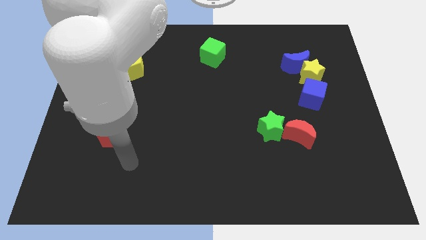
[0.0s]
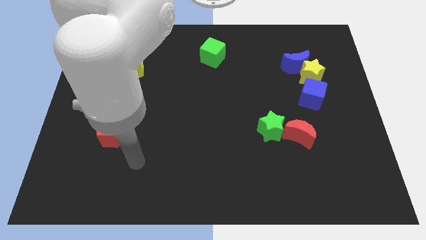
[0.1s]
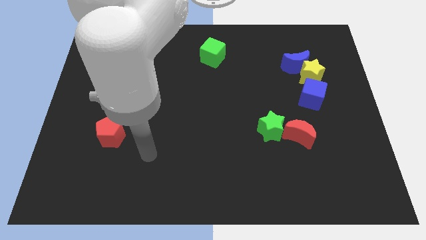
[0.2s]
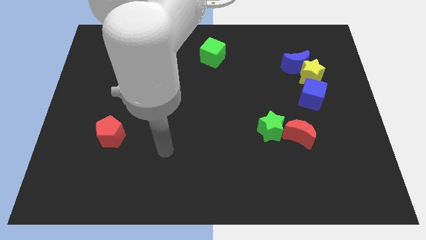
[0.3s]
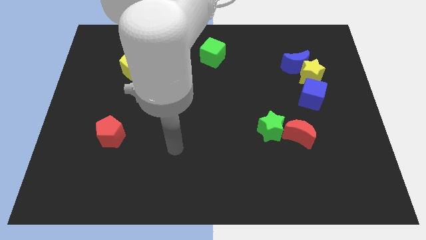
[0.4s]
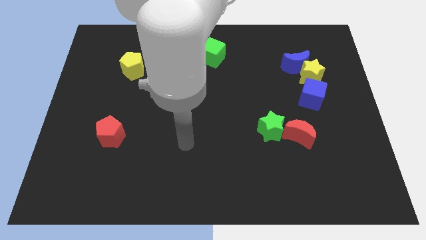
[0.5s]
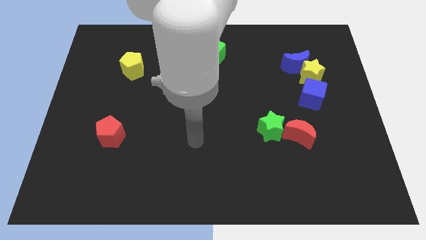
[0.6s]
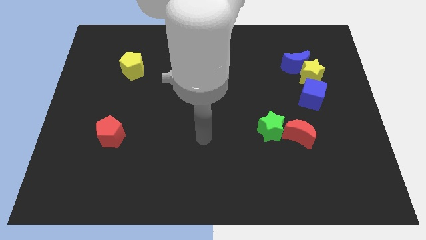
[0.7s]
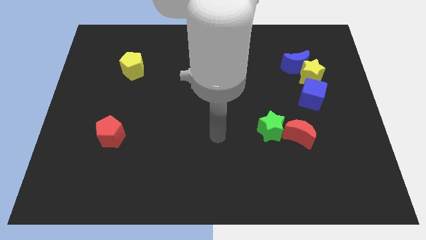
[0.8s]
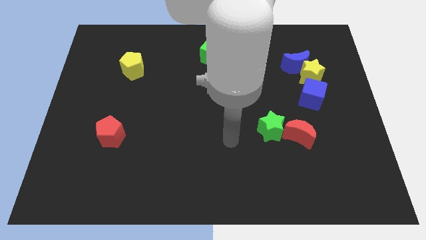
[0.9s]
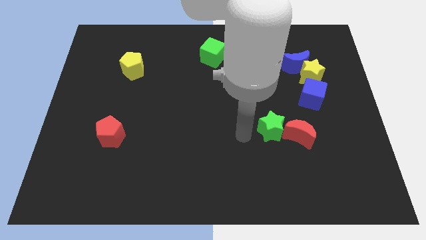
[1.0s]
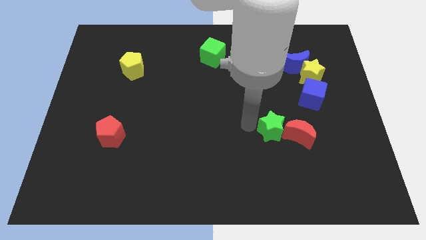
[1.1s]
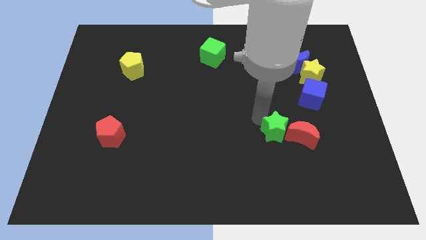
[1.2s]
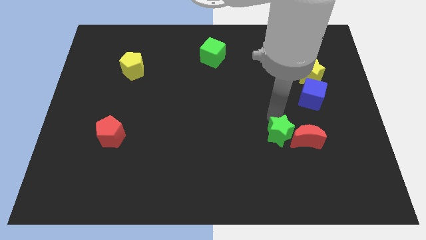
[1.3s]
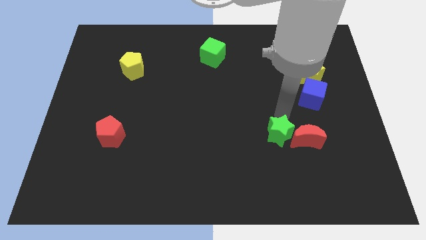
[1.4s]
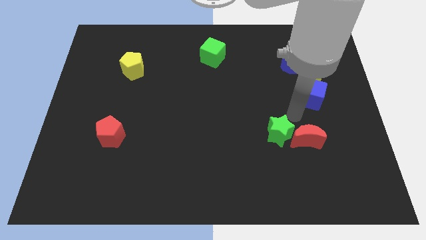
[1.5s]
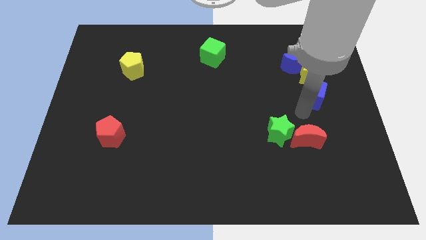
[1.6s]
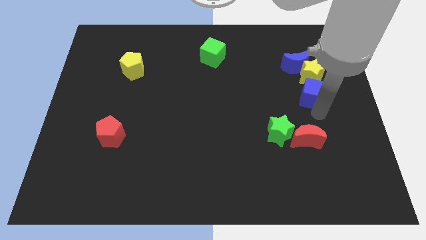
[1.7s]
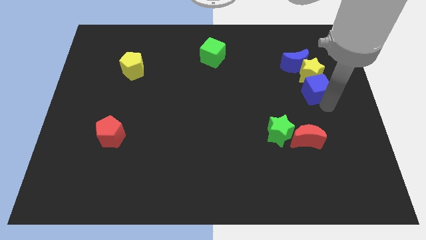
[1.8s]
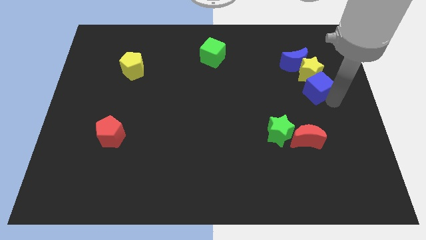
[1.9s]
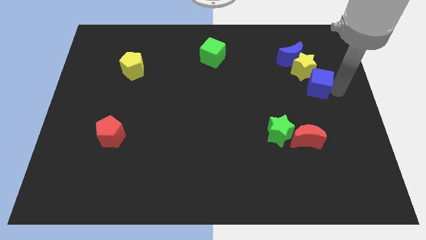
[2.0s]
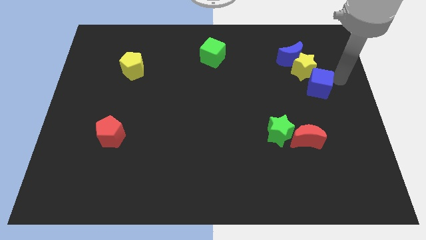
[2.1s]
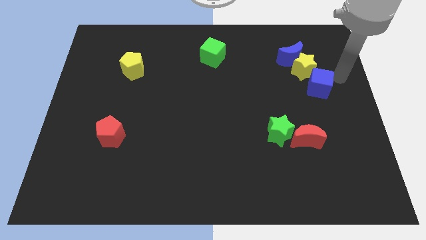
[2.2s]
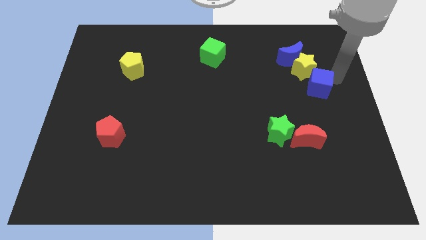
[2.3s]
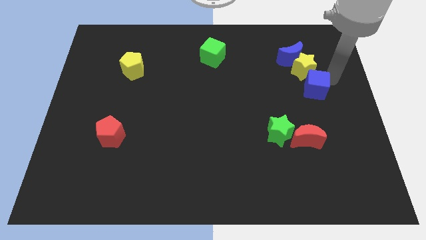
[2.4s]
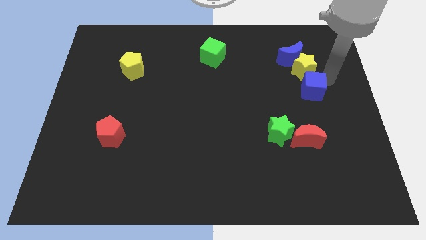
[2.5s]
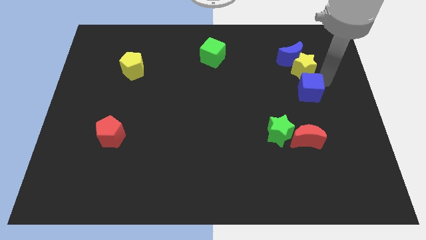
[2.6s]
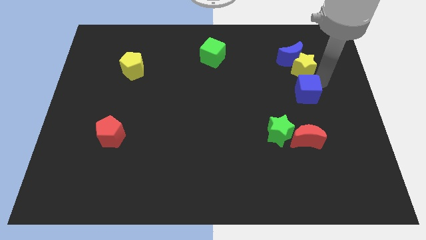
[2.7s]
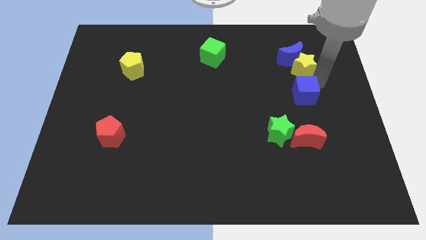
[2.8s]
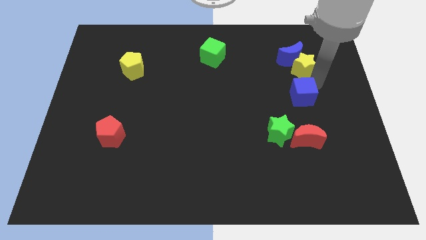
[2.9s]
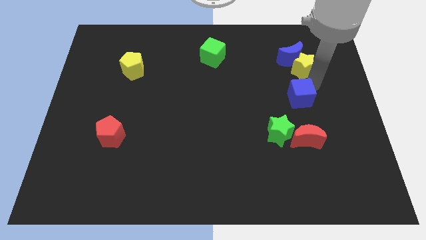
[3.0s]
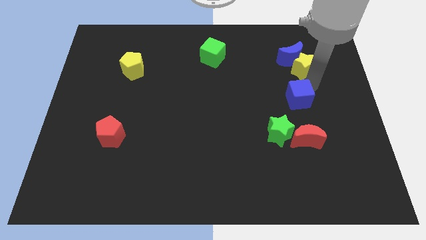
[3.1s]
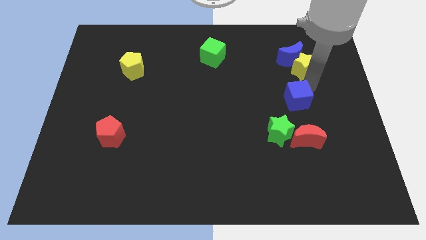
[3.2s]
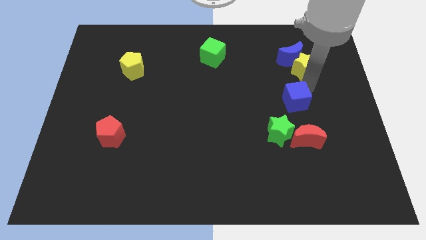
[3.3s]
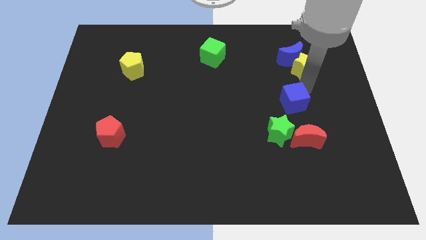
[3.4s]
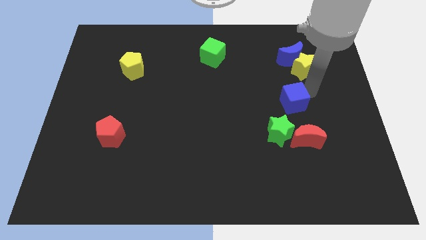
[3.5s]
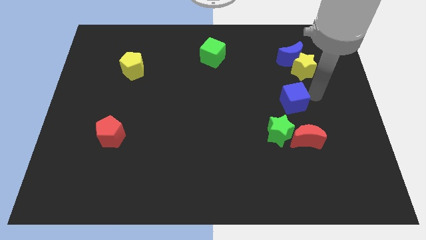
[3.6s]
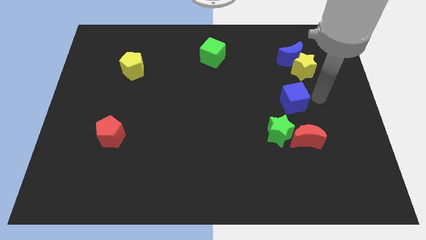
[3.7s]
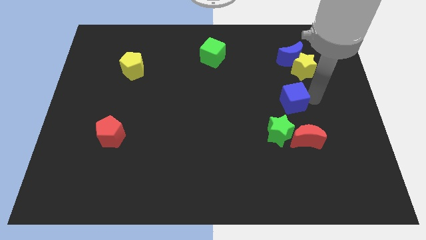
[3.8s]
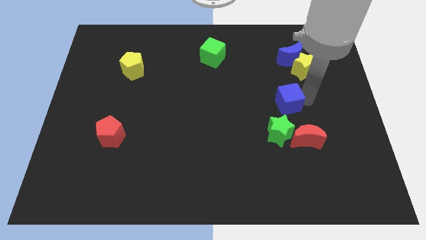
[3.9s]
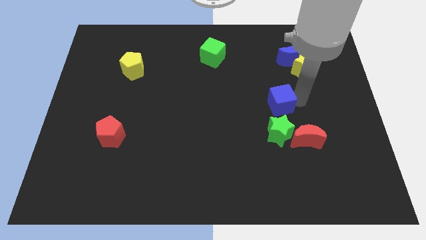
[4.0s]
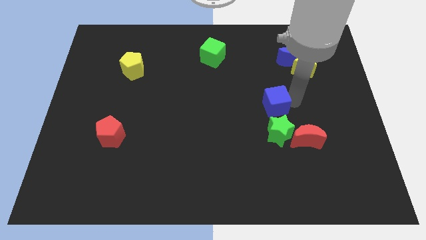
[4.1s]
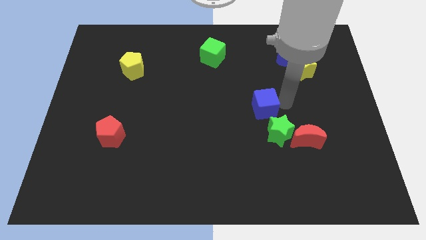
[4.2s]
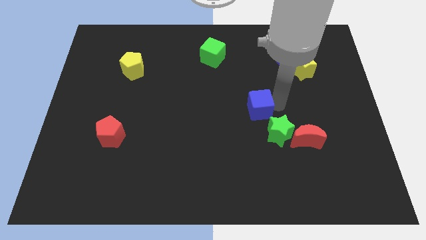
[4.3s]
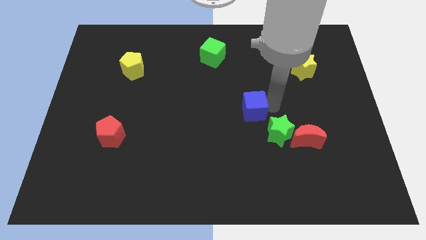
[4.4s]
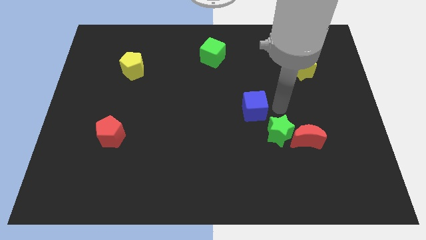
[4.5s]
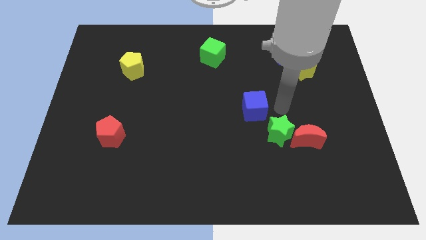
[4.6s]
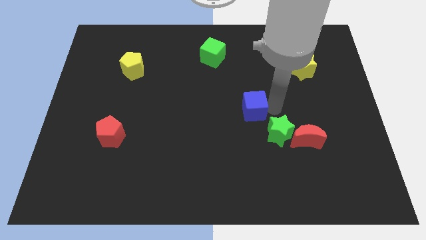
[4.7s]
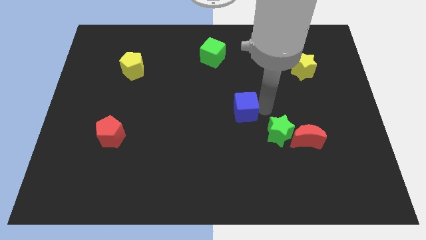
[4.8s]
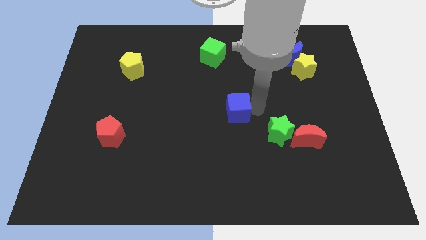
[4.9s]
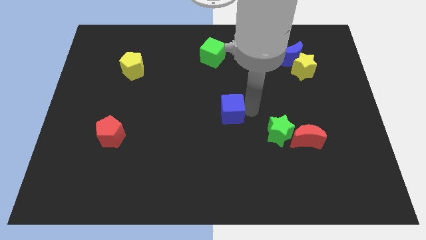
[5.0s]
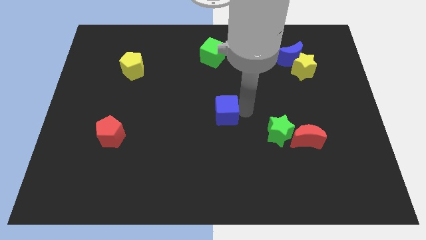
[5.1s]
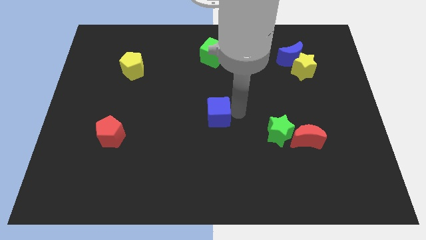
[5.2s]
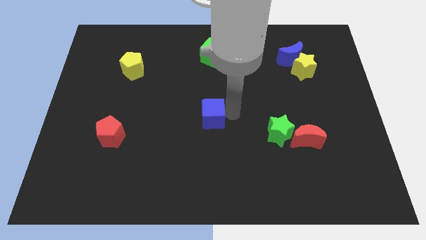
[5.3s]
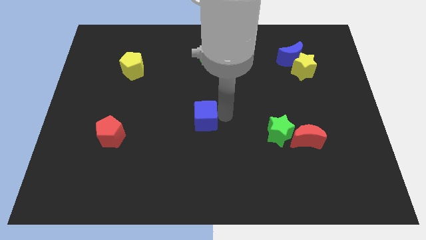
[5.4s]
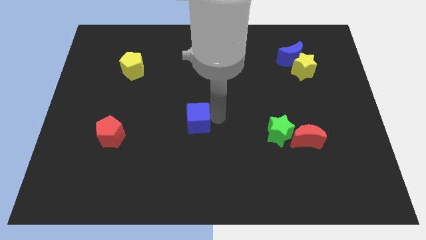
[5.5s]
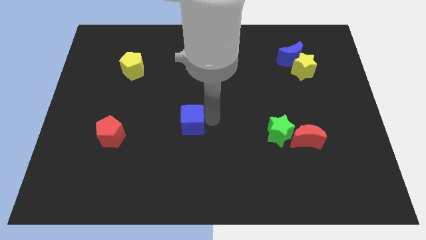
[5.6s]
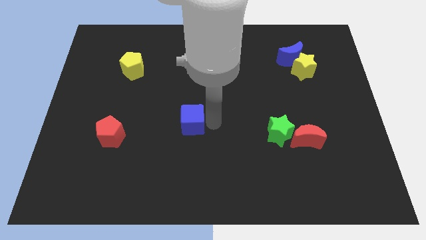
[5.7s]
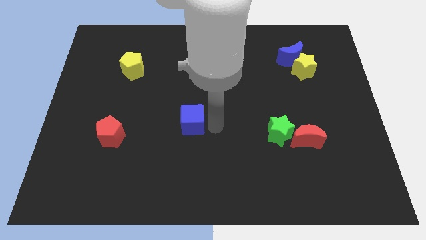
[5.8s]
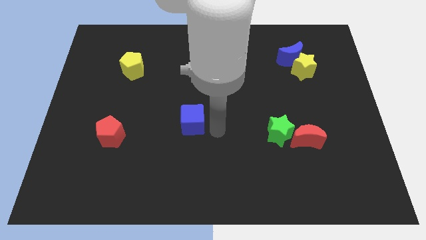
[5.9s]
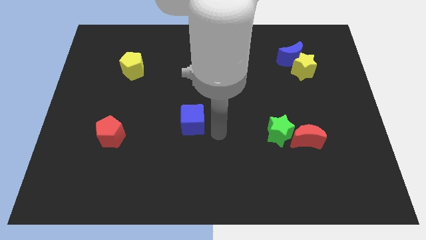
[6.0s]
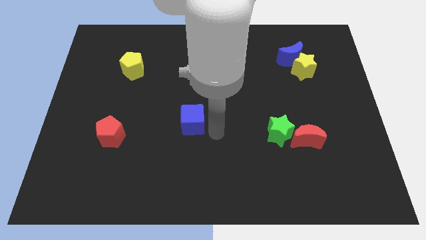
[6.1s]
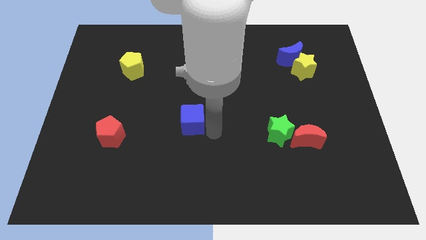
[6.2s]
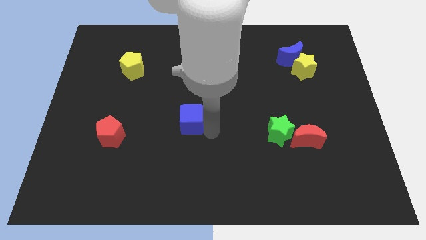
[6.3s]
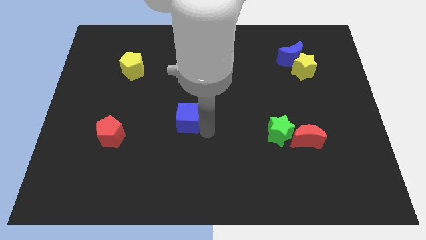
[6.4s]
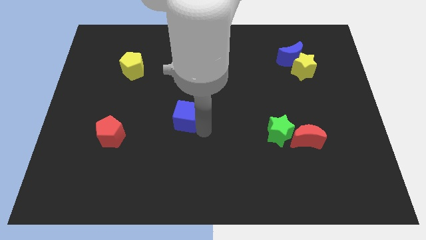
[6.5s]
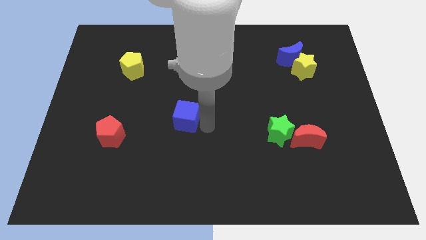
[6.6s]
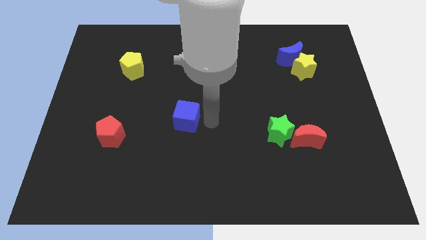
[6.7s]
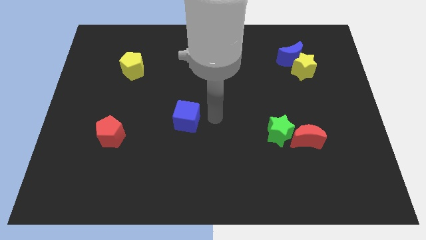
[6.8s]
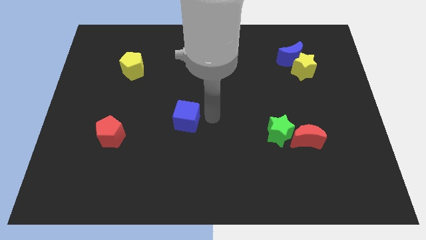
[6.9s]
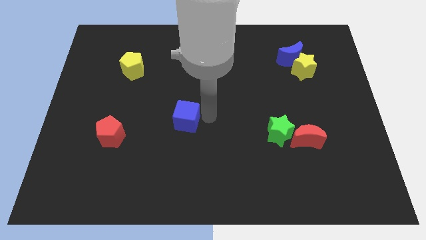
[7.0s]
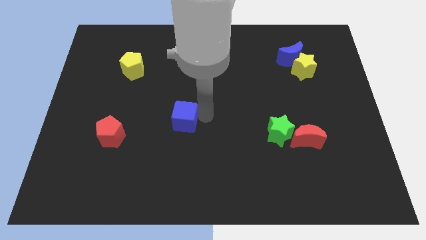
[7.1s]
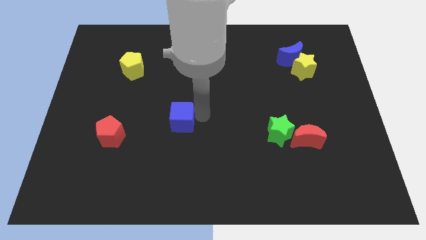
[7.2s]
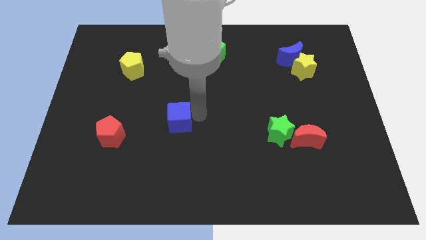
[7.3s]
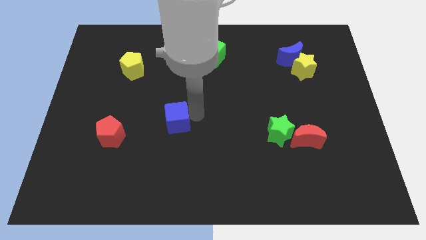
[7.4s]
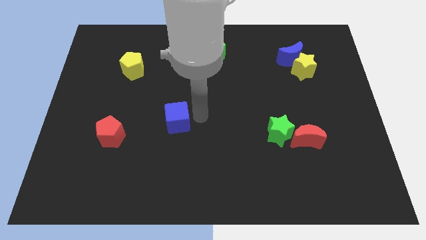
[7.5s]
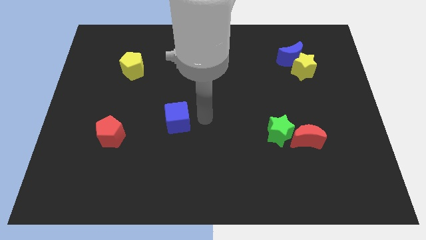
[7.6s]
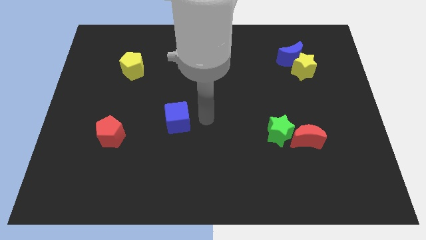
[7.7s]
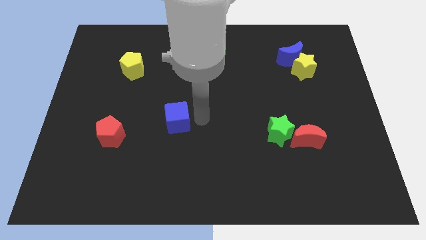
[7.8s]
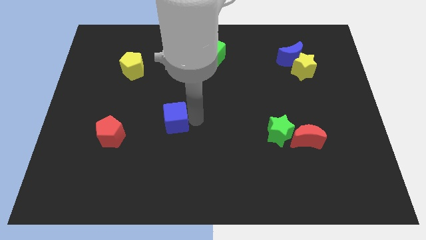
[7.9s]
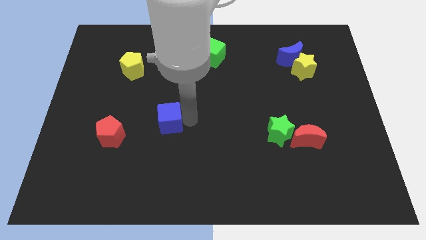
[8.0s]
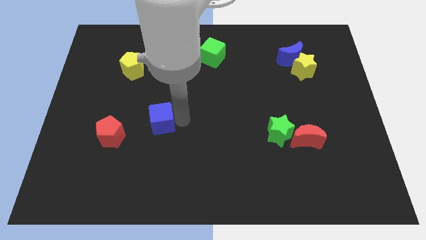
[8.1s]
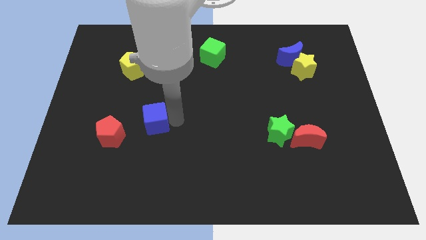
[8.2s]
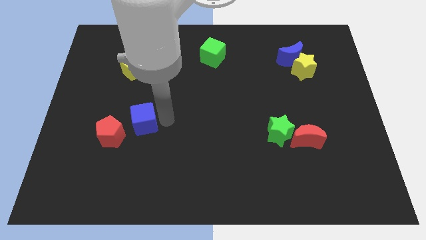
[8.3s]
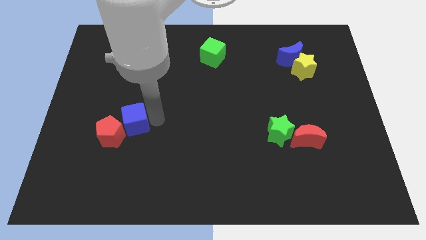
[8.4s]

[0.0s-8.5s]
slide the blue cube next to the red pentagon
